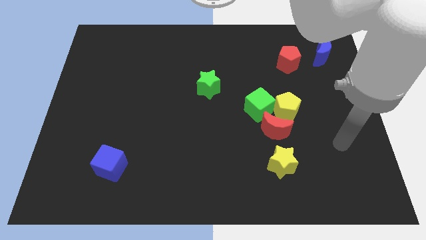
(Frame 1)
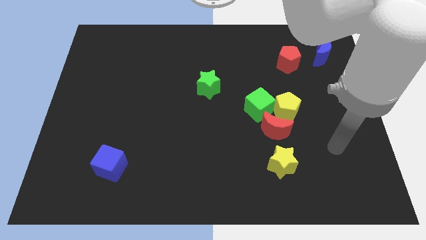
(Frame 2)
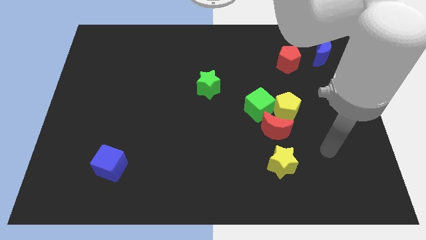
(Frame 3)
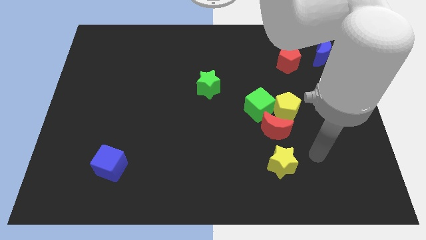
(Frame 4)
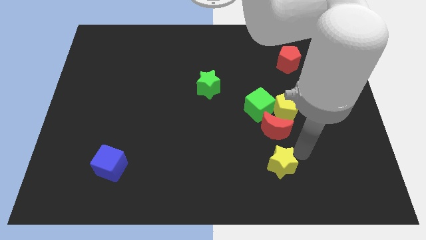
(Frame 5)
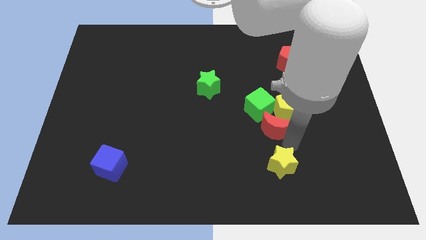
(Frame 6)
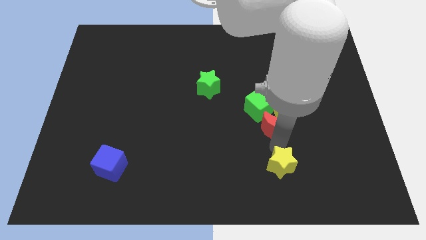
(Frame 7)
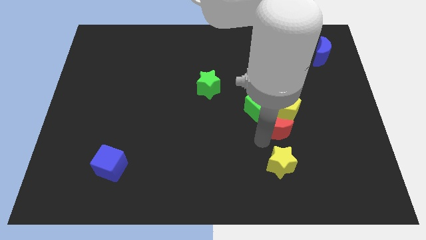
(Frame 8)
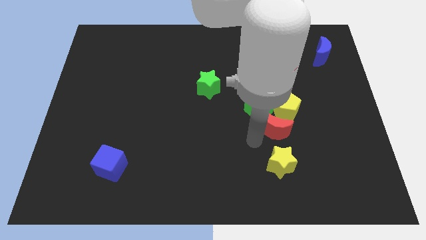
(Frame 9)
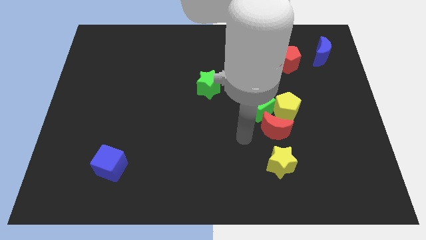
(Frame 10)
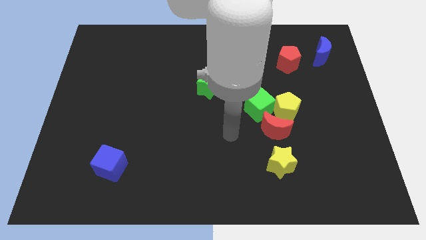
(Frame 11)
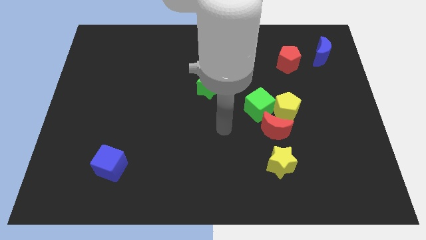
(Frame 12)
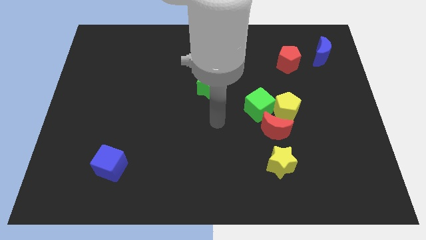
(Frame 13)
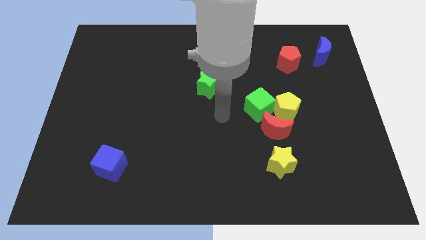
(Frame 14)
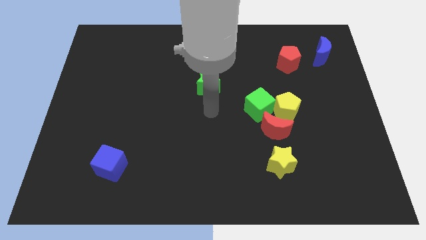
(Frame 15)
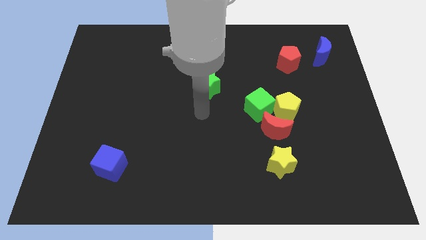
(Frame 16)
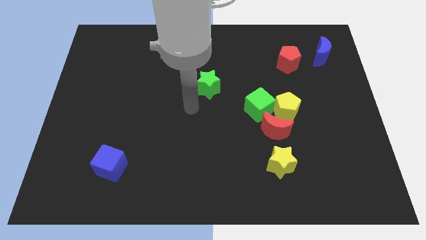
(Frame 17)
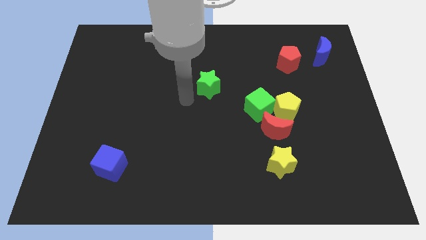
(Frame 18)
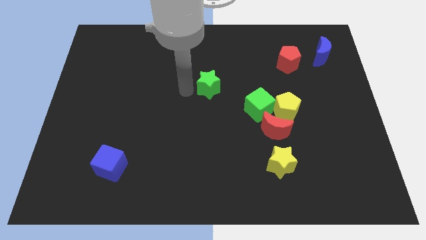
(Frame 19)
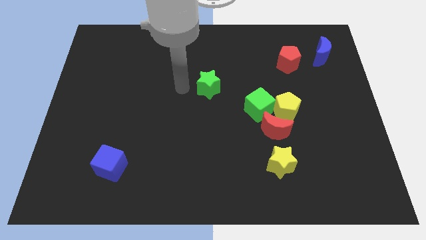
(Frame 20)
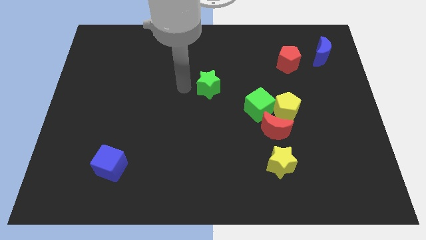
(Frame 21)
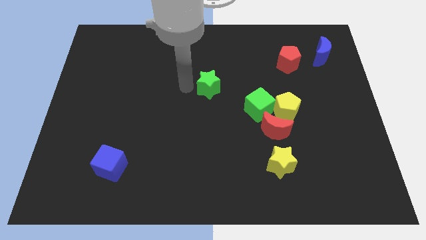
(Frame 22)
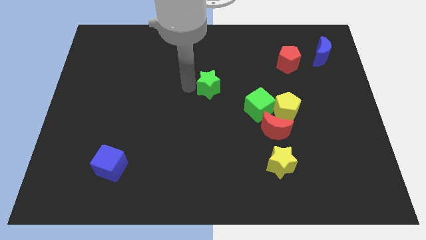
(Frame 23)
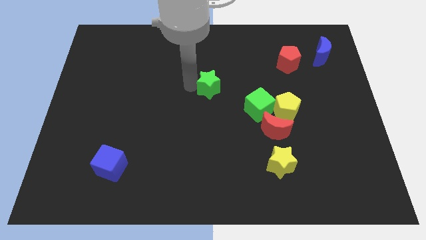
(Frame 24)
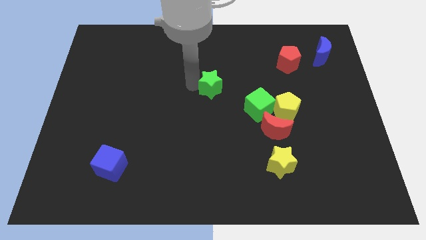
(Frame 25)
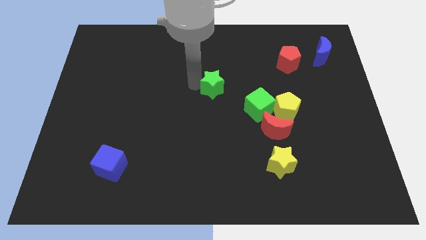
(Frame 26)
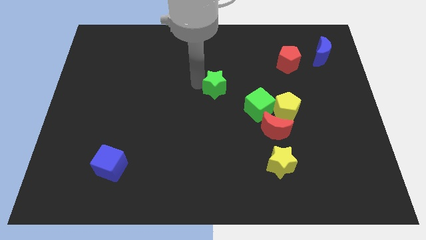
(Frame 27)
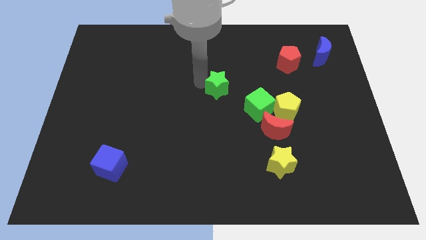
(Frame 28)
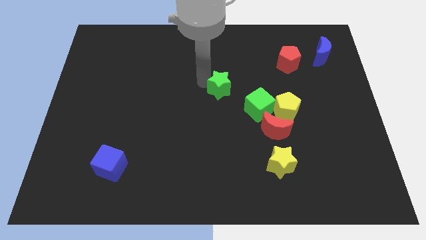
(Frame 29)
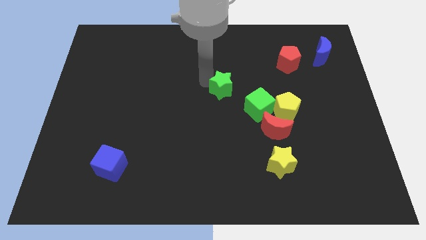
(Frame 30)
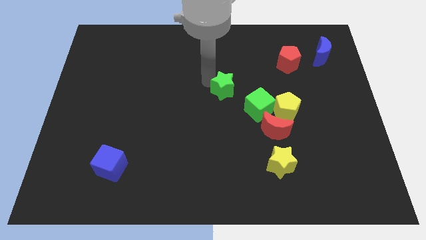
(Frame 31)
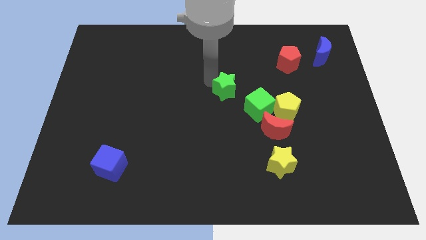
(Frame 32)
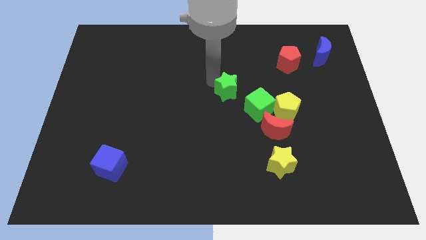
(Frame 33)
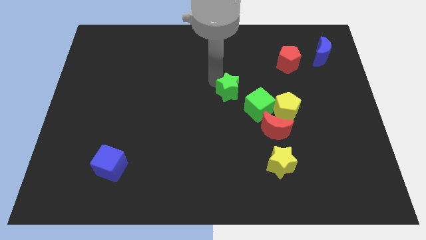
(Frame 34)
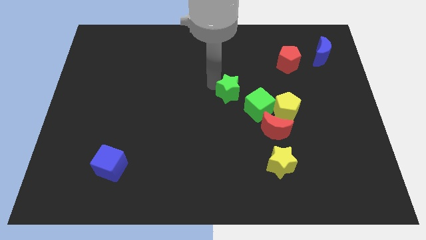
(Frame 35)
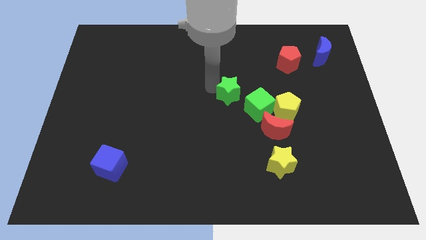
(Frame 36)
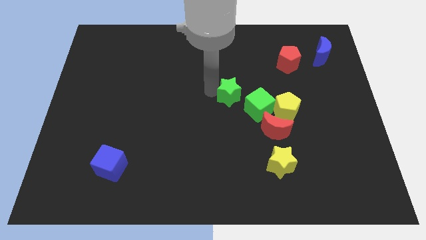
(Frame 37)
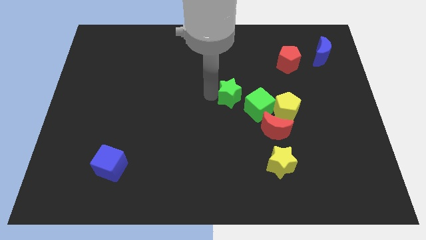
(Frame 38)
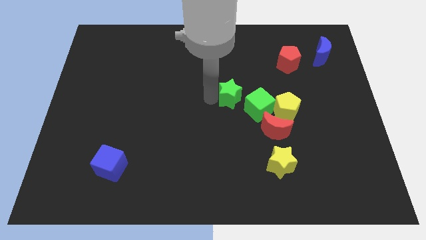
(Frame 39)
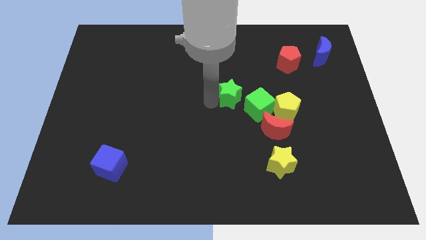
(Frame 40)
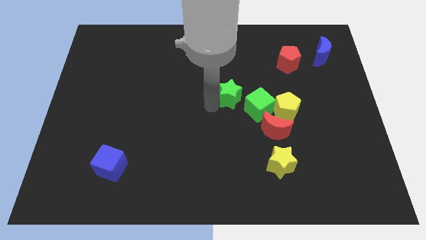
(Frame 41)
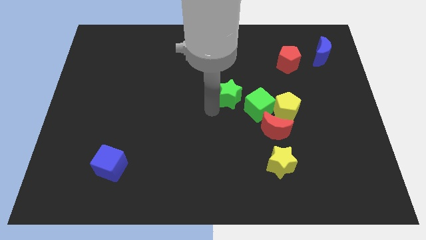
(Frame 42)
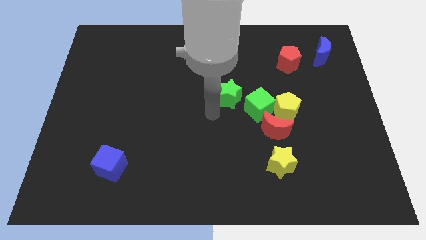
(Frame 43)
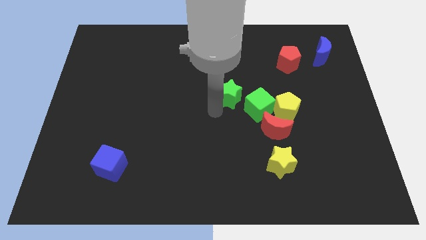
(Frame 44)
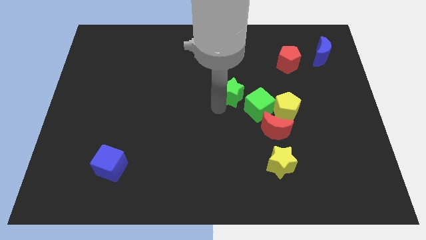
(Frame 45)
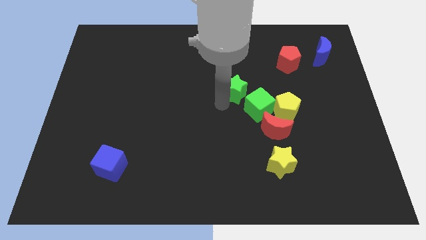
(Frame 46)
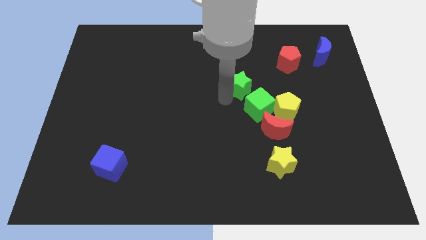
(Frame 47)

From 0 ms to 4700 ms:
slide the green star a bit to the right

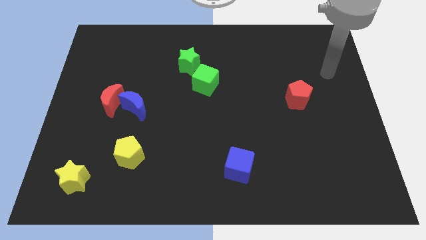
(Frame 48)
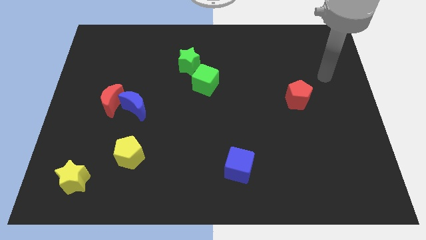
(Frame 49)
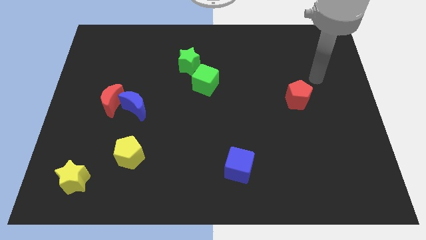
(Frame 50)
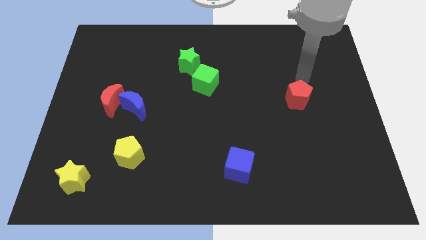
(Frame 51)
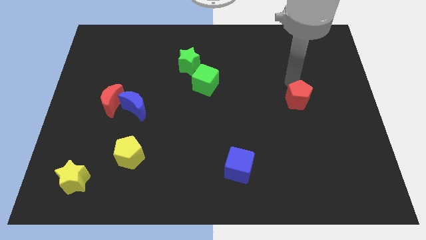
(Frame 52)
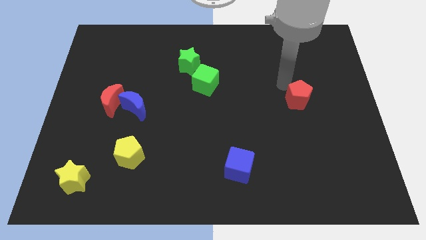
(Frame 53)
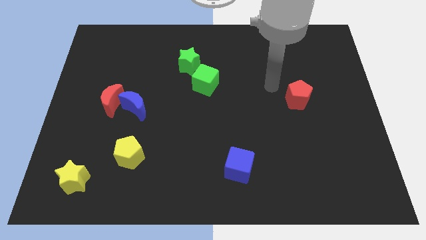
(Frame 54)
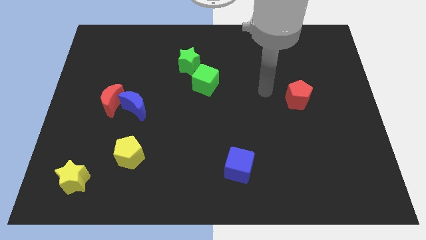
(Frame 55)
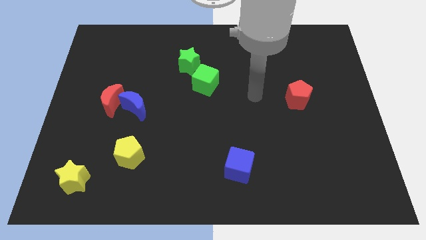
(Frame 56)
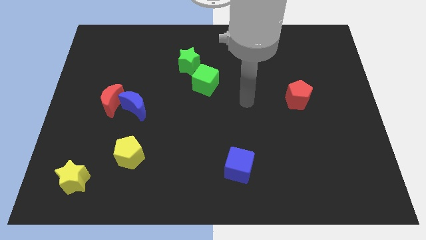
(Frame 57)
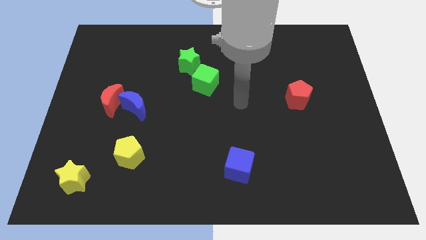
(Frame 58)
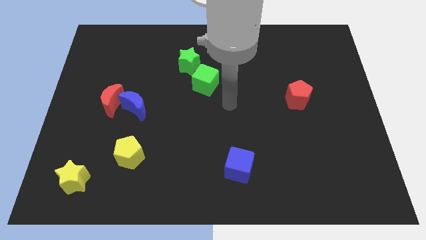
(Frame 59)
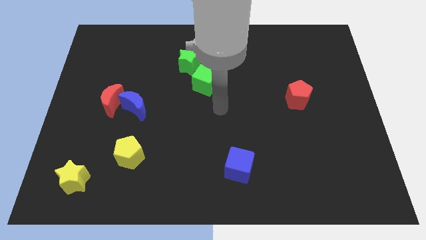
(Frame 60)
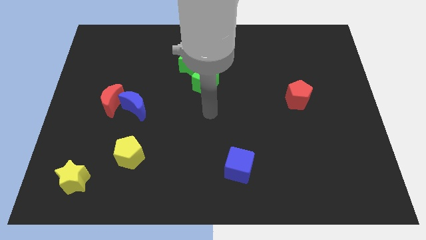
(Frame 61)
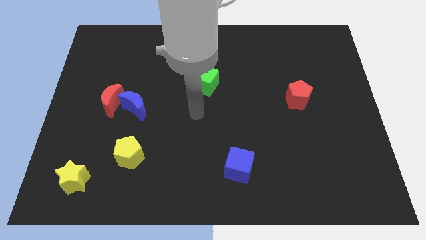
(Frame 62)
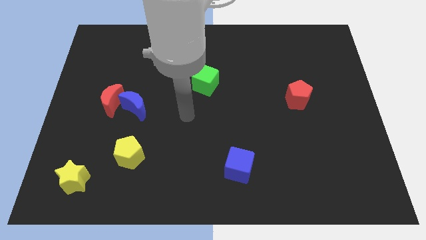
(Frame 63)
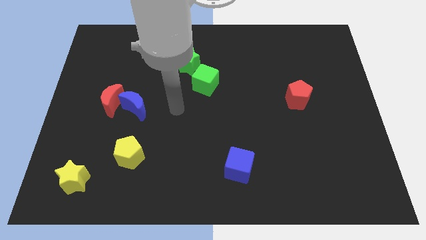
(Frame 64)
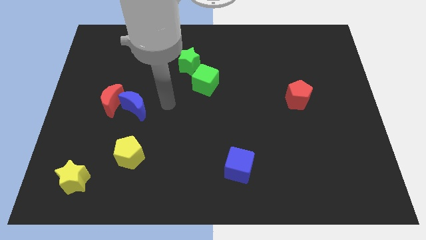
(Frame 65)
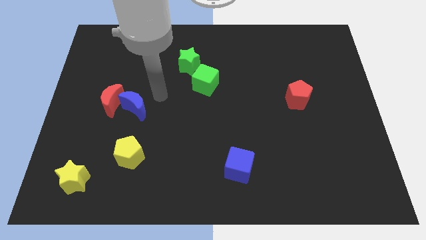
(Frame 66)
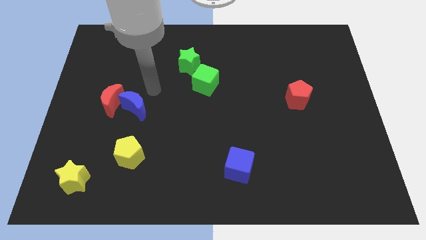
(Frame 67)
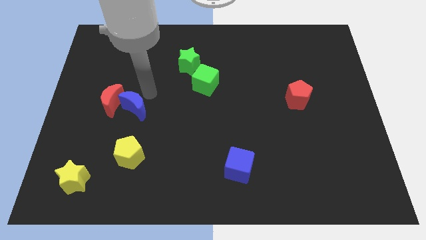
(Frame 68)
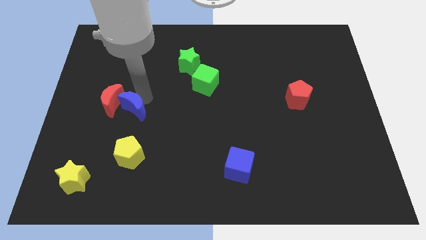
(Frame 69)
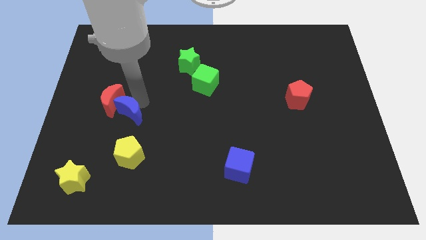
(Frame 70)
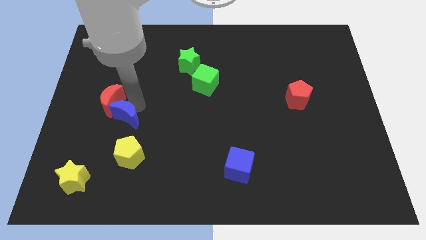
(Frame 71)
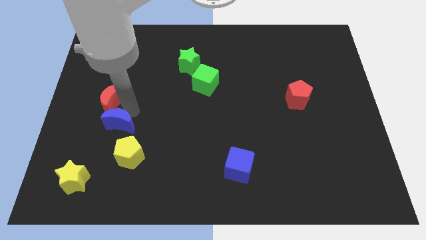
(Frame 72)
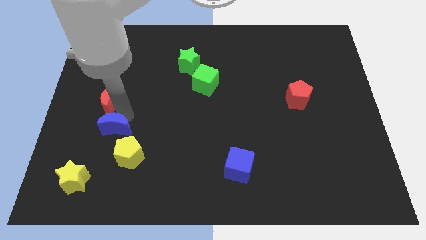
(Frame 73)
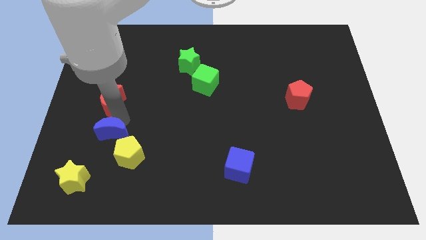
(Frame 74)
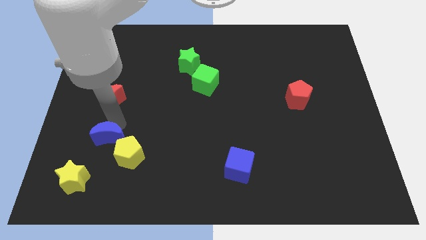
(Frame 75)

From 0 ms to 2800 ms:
move the blue moon downwards a little

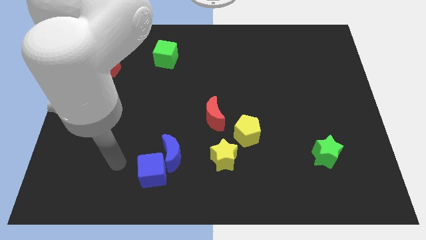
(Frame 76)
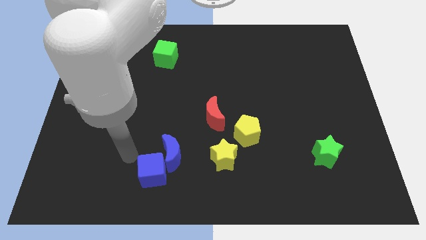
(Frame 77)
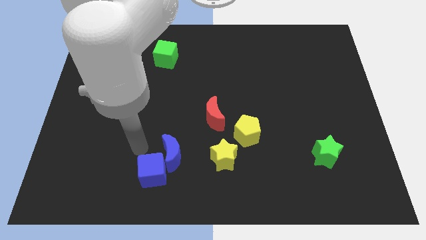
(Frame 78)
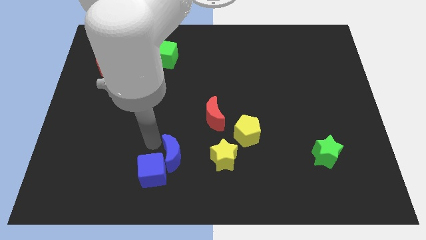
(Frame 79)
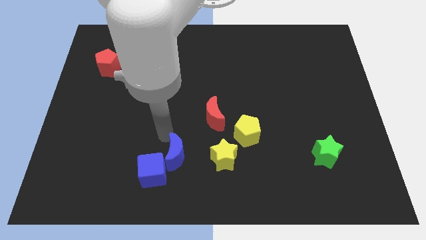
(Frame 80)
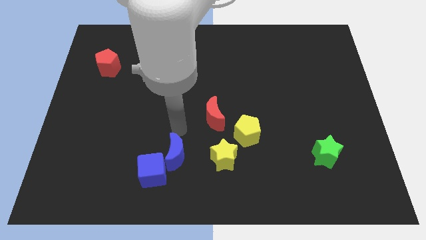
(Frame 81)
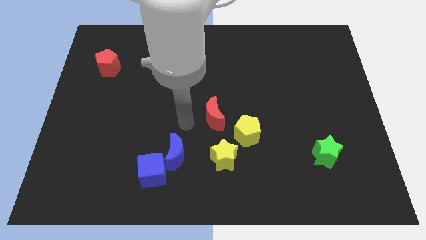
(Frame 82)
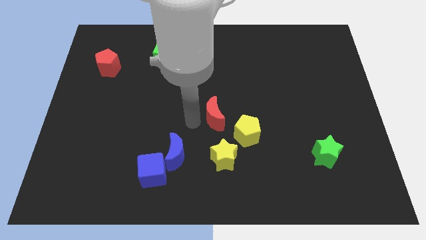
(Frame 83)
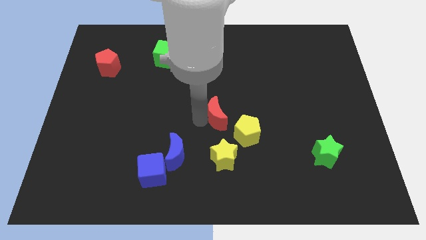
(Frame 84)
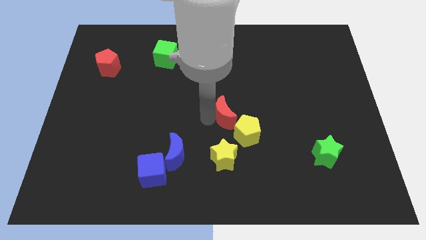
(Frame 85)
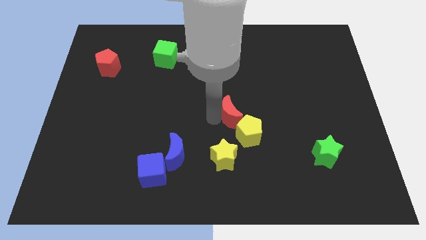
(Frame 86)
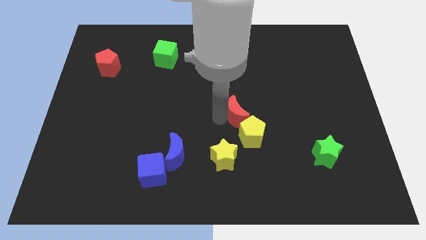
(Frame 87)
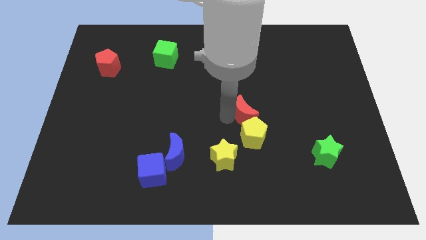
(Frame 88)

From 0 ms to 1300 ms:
push the red moon to the right a little
